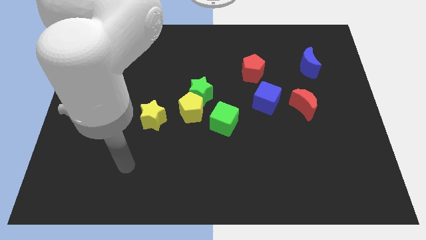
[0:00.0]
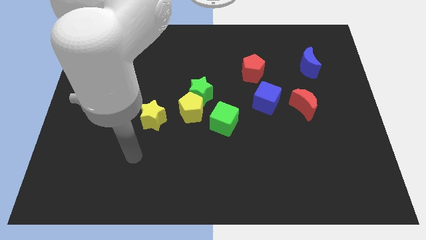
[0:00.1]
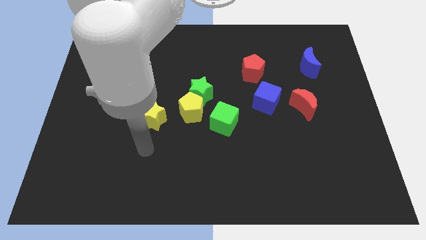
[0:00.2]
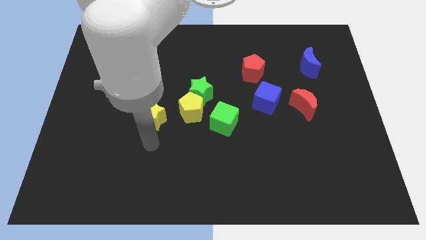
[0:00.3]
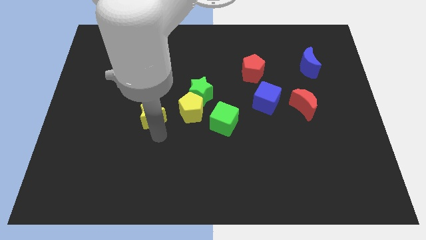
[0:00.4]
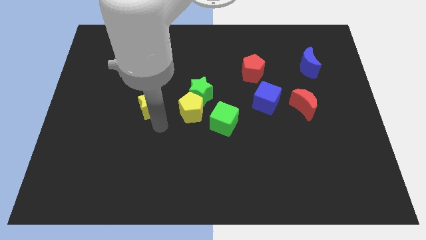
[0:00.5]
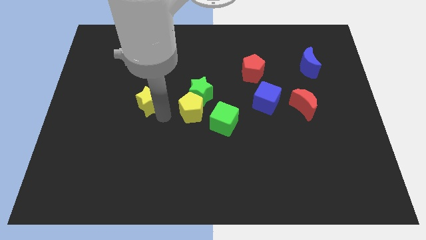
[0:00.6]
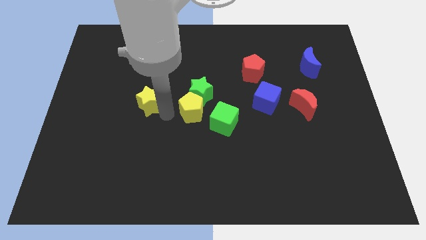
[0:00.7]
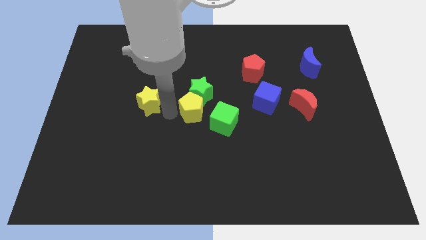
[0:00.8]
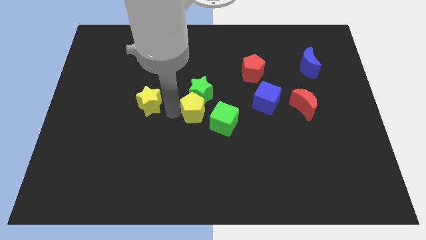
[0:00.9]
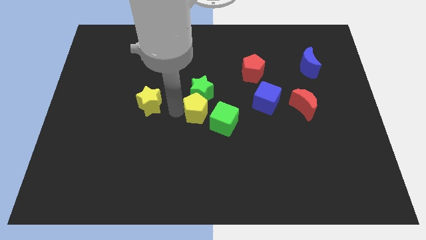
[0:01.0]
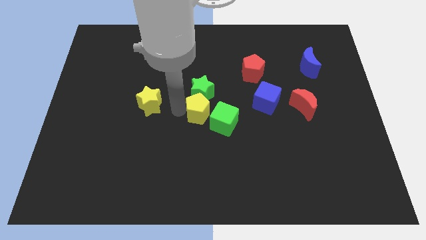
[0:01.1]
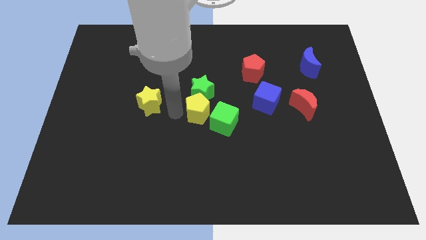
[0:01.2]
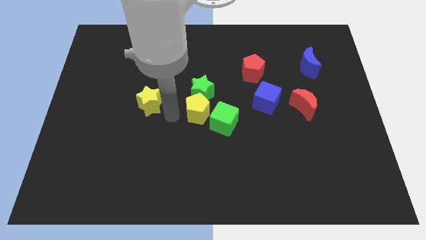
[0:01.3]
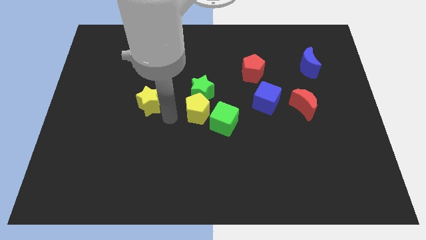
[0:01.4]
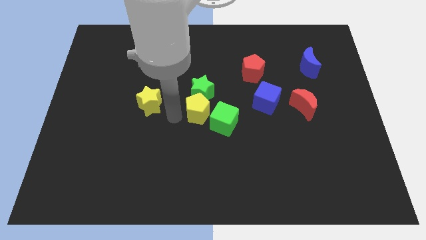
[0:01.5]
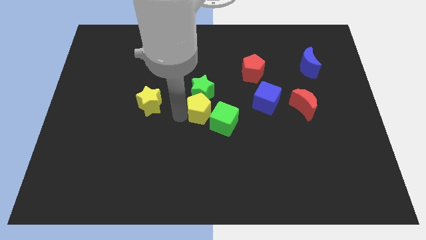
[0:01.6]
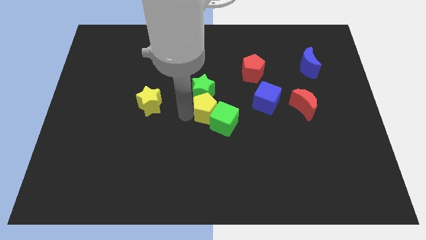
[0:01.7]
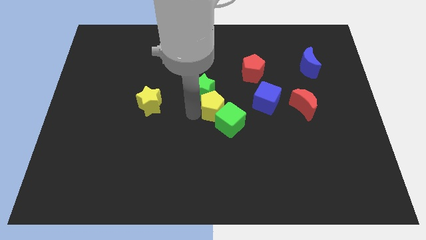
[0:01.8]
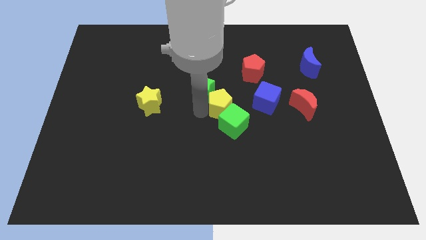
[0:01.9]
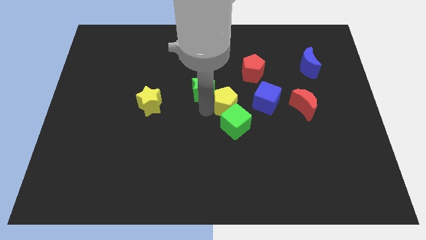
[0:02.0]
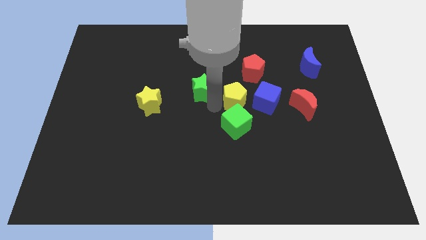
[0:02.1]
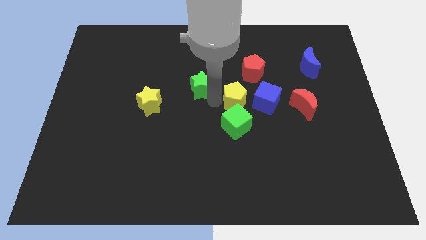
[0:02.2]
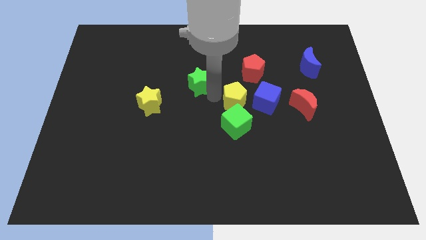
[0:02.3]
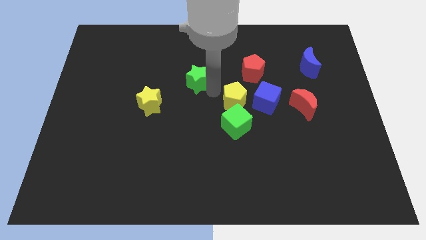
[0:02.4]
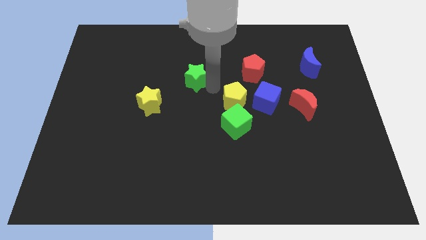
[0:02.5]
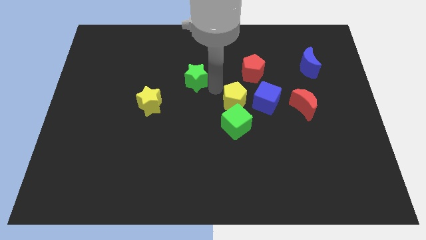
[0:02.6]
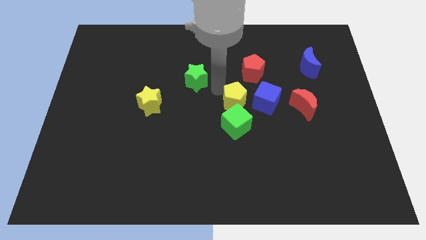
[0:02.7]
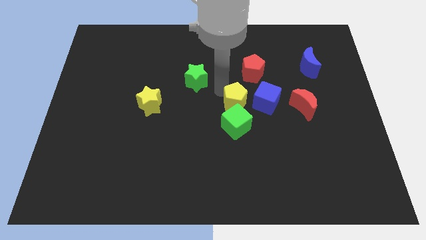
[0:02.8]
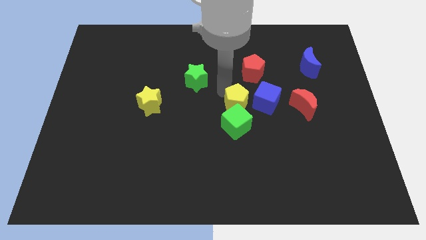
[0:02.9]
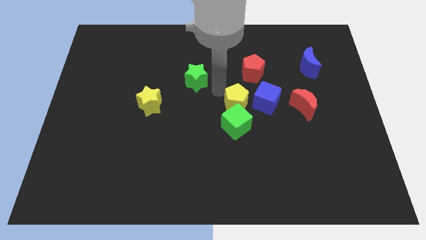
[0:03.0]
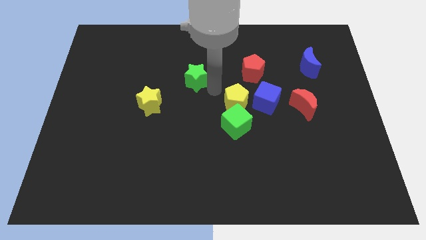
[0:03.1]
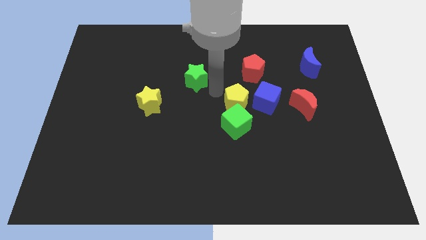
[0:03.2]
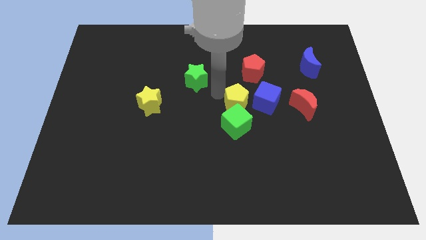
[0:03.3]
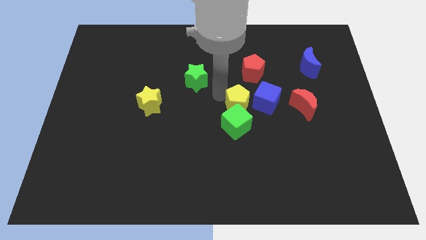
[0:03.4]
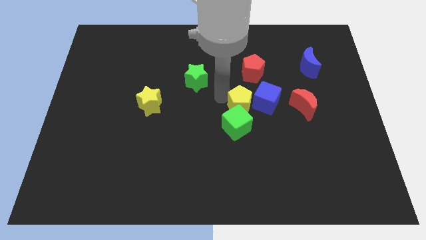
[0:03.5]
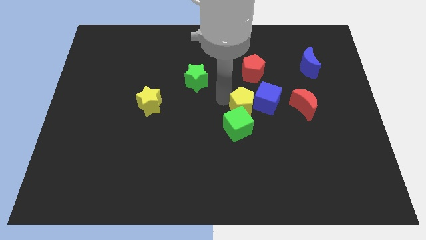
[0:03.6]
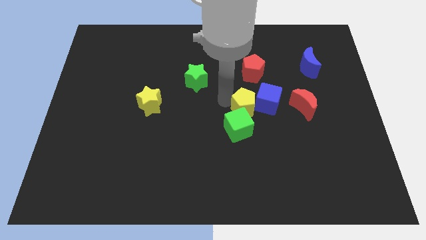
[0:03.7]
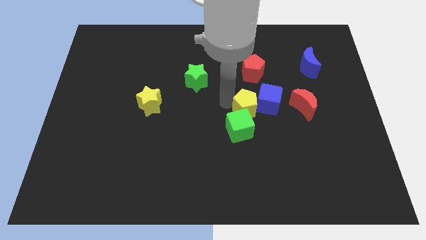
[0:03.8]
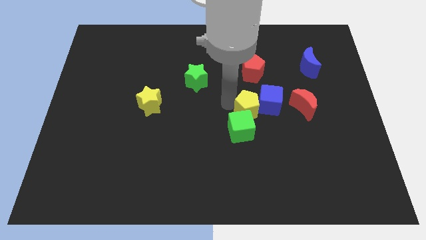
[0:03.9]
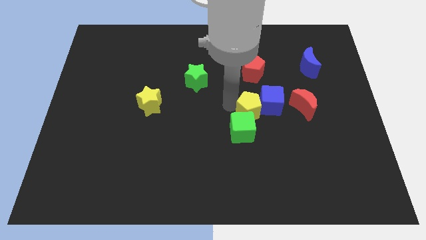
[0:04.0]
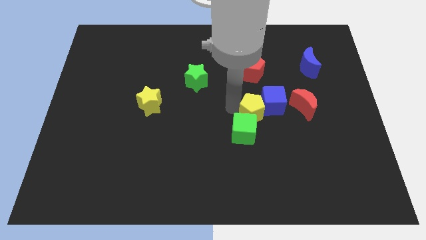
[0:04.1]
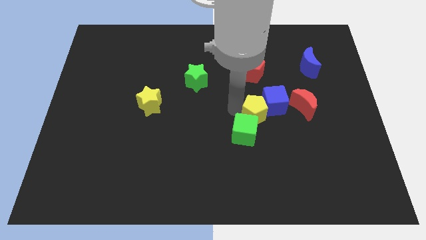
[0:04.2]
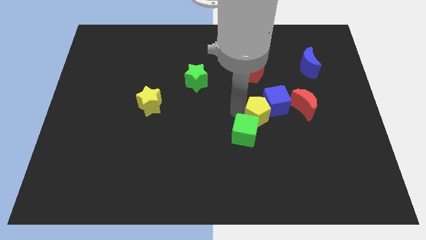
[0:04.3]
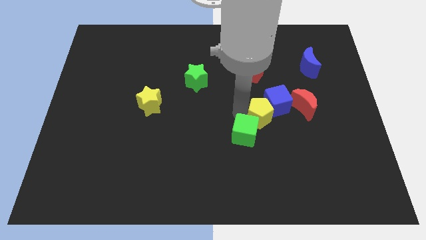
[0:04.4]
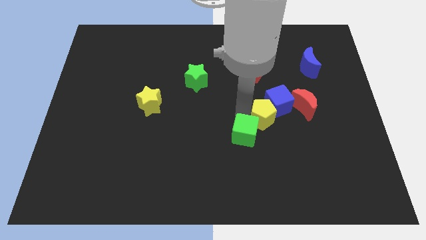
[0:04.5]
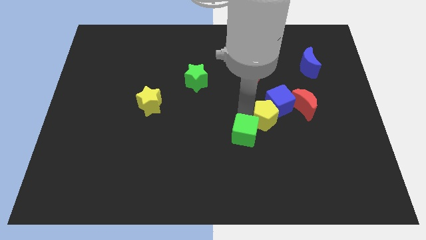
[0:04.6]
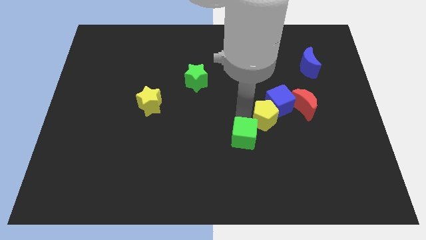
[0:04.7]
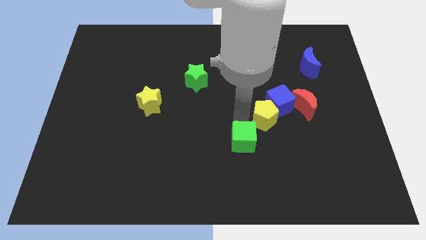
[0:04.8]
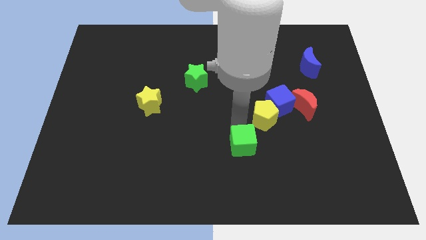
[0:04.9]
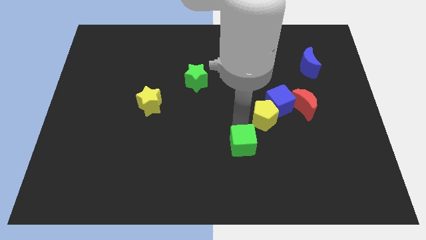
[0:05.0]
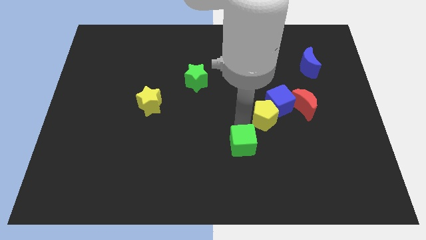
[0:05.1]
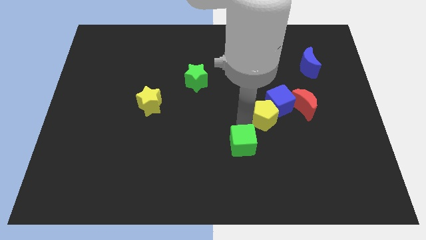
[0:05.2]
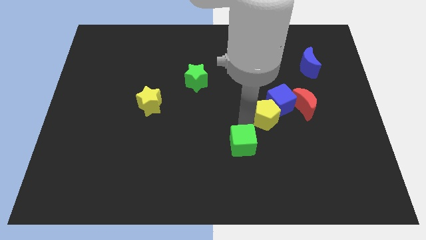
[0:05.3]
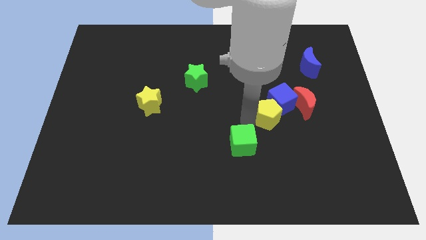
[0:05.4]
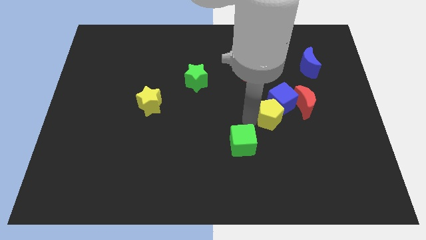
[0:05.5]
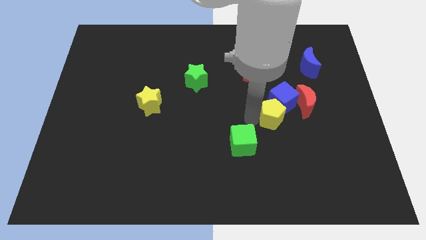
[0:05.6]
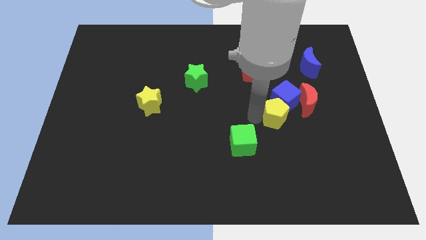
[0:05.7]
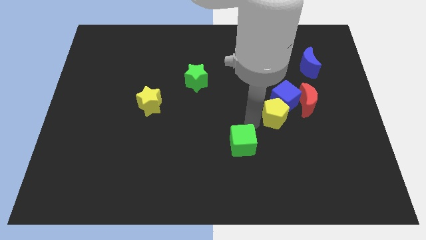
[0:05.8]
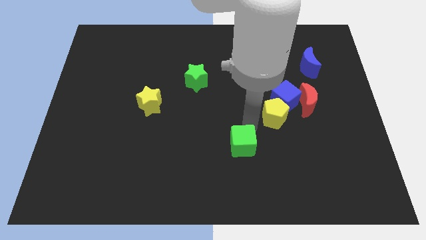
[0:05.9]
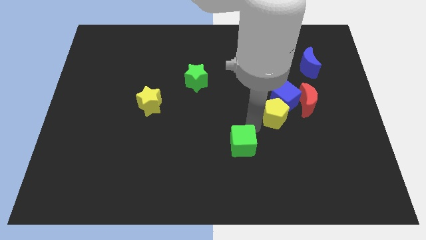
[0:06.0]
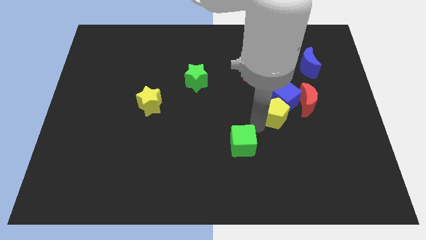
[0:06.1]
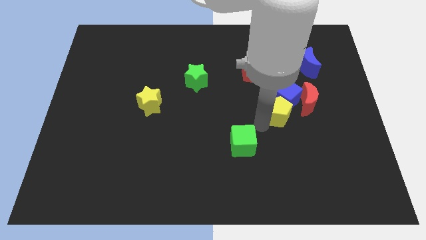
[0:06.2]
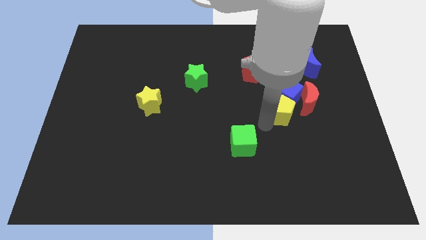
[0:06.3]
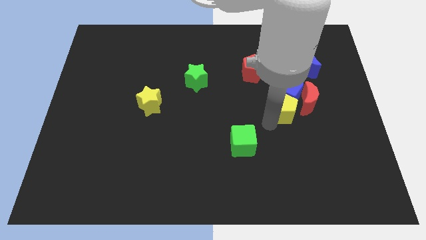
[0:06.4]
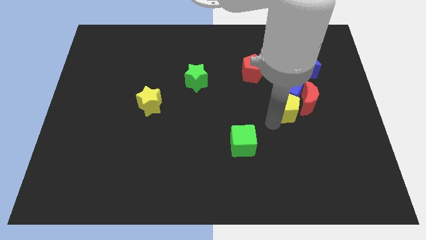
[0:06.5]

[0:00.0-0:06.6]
push the yellow pentagon towards the red moon

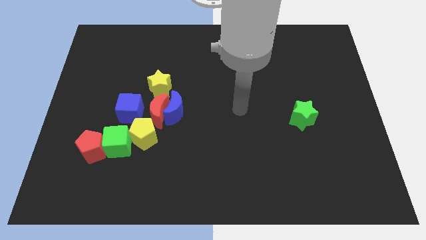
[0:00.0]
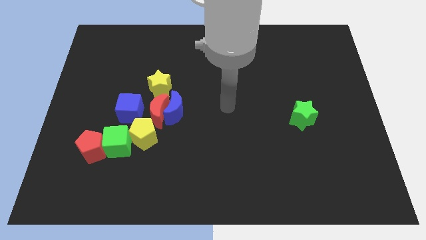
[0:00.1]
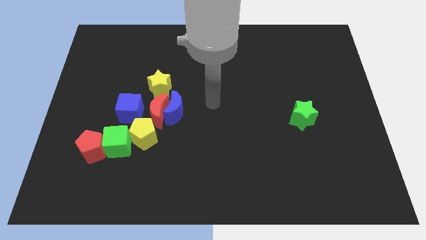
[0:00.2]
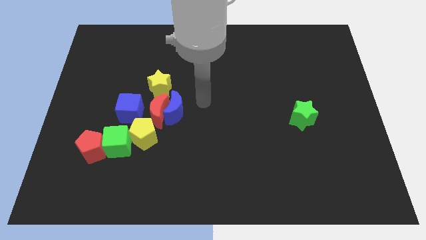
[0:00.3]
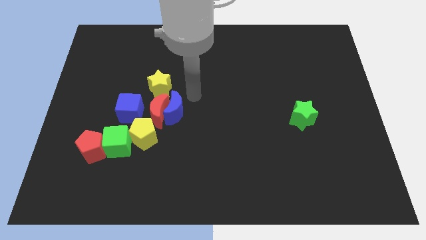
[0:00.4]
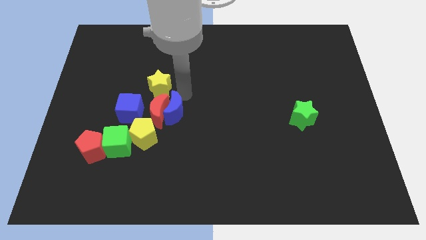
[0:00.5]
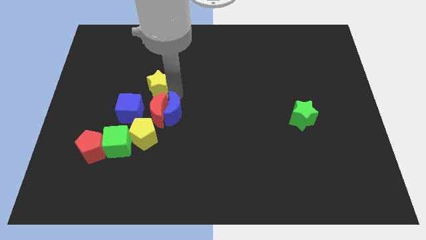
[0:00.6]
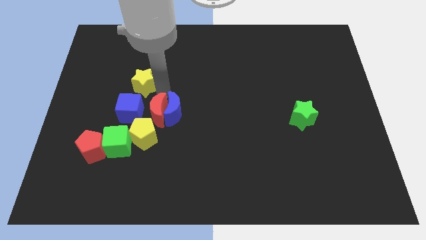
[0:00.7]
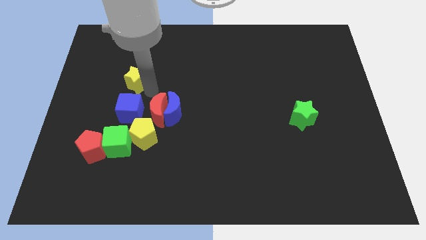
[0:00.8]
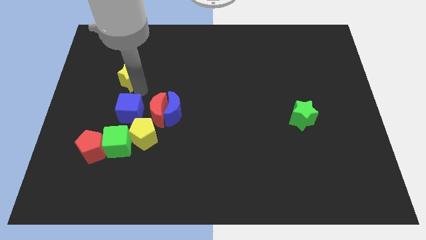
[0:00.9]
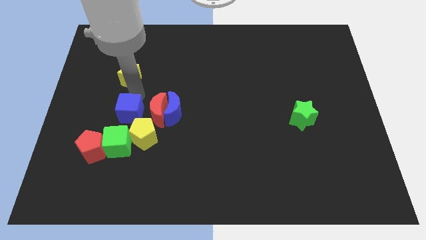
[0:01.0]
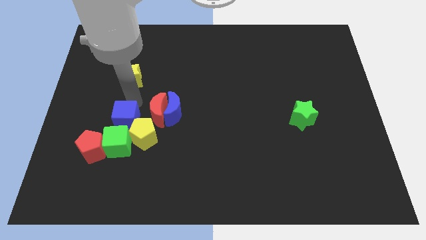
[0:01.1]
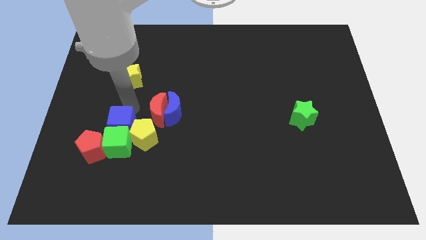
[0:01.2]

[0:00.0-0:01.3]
put the blue cube next to the green cube

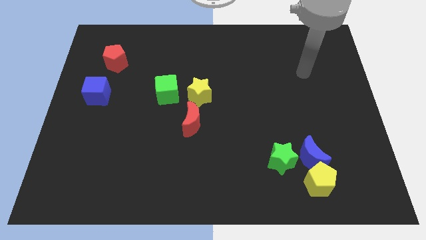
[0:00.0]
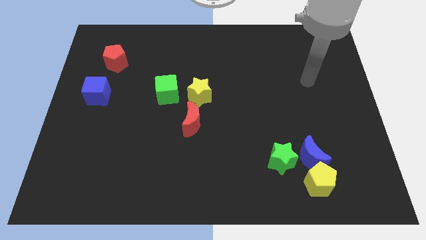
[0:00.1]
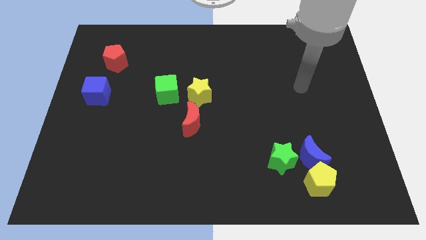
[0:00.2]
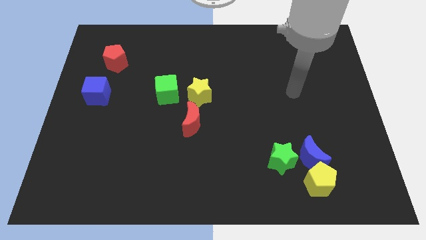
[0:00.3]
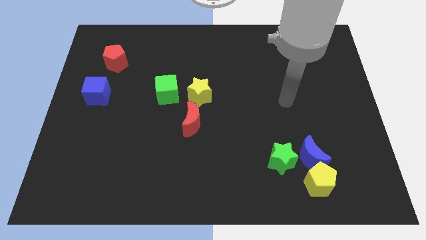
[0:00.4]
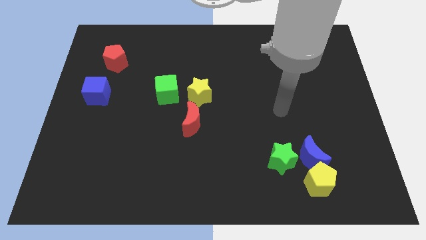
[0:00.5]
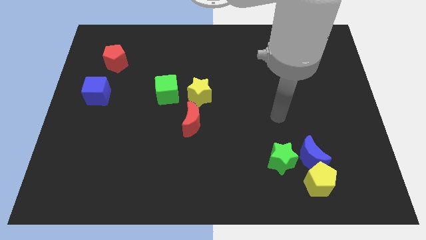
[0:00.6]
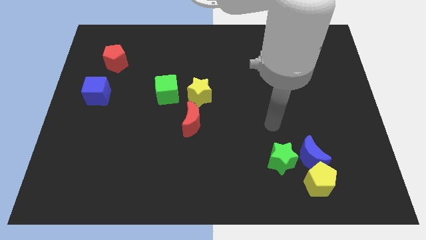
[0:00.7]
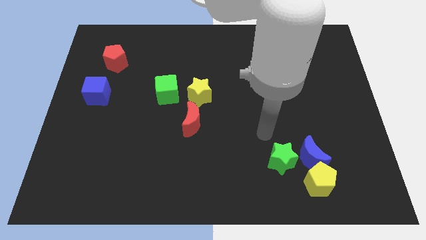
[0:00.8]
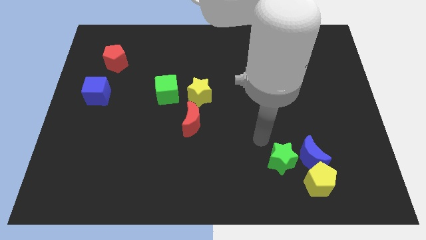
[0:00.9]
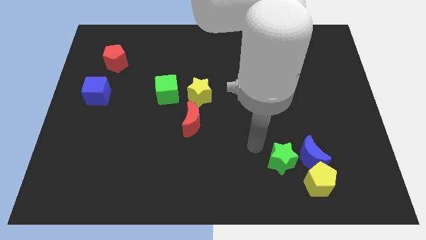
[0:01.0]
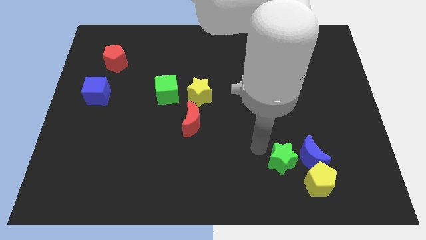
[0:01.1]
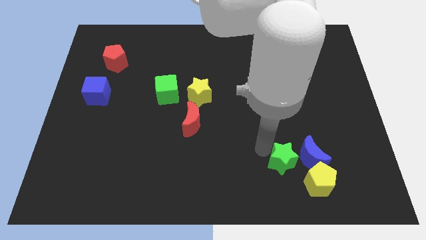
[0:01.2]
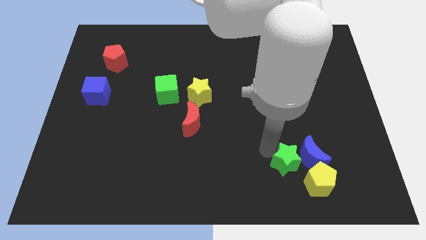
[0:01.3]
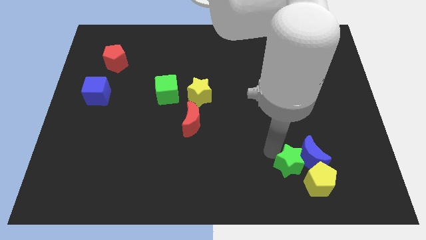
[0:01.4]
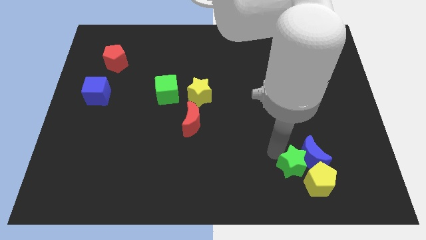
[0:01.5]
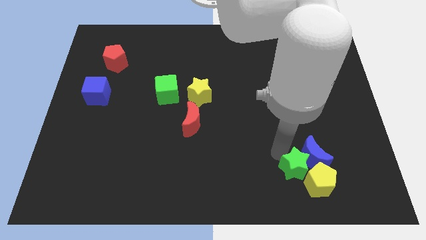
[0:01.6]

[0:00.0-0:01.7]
slide the green star close to the yellow pentagon
